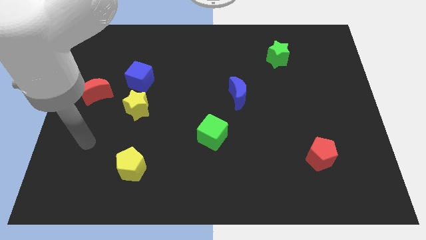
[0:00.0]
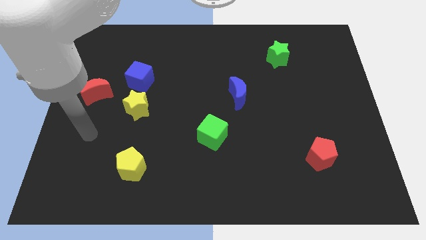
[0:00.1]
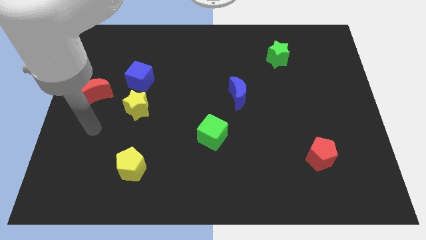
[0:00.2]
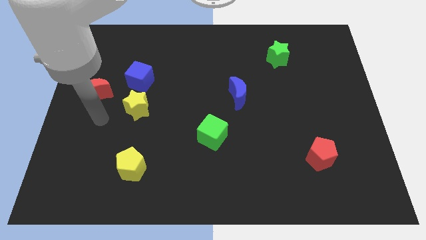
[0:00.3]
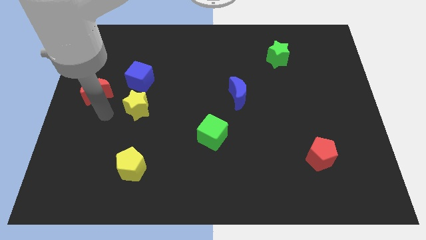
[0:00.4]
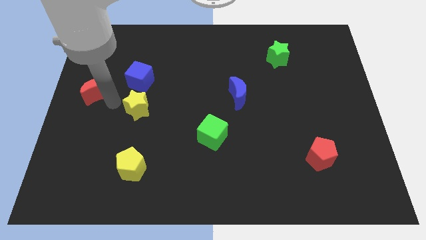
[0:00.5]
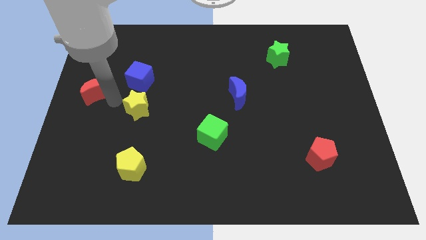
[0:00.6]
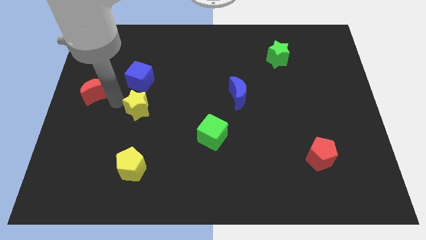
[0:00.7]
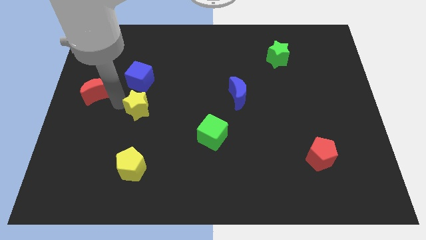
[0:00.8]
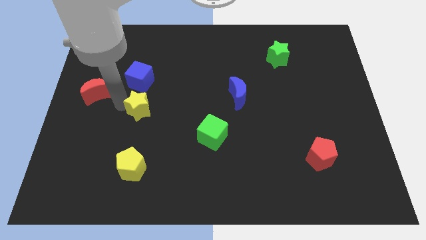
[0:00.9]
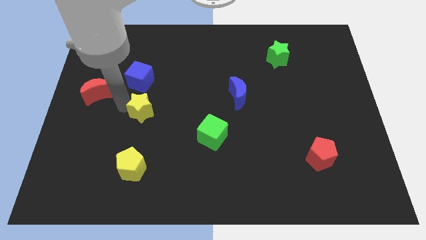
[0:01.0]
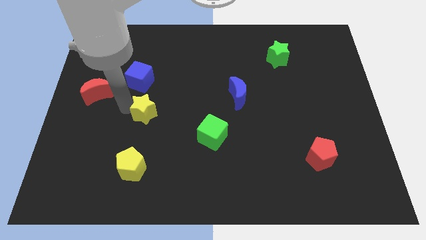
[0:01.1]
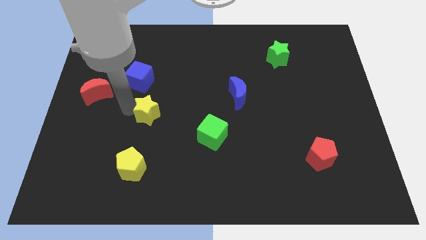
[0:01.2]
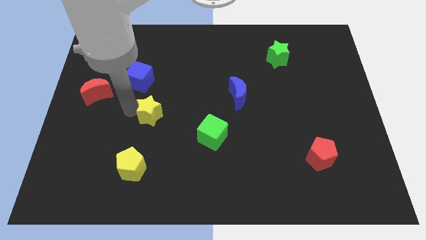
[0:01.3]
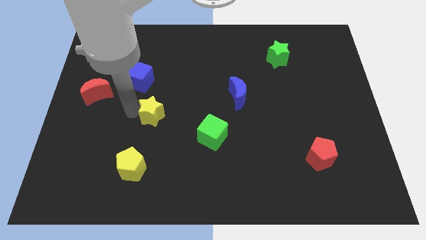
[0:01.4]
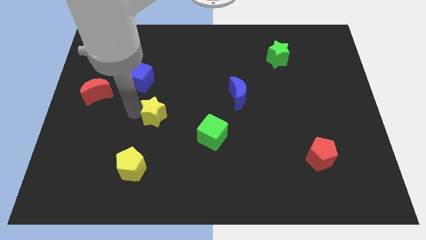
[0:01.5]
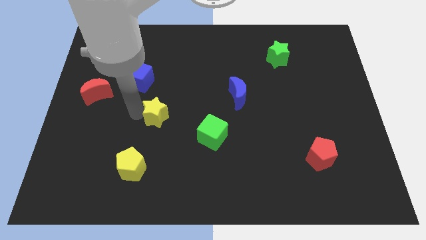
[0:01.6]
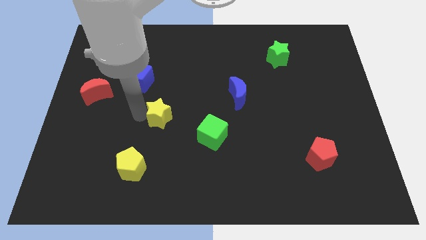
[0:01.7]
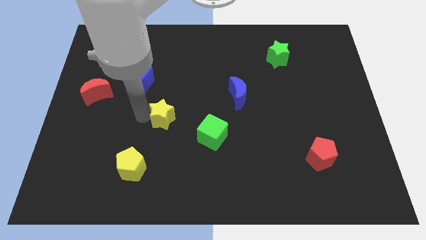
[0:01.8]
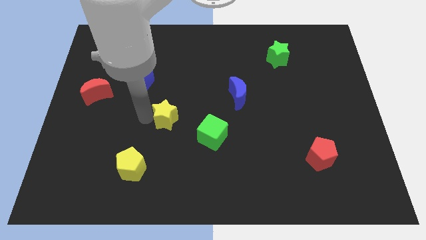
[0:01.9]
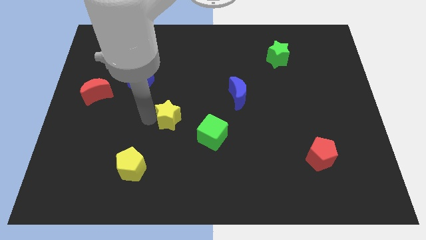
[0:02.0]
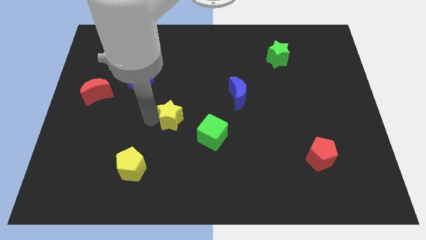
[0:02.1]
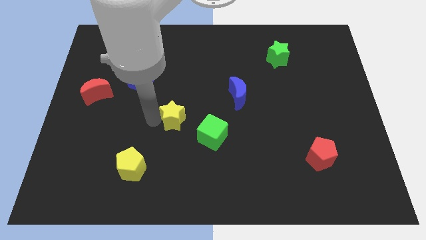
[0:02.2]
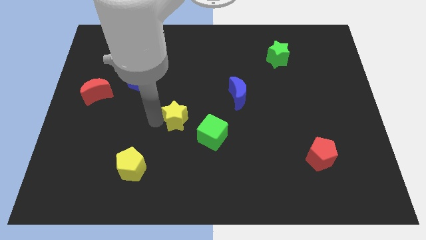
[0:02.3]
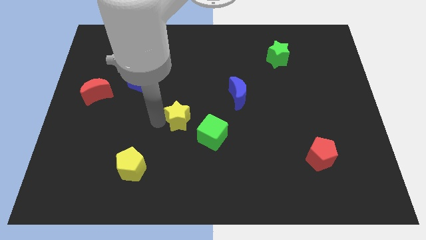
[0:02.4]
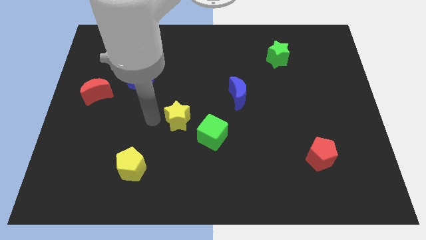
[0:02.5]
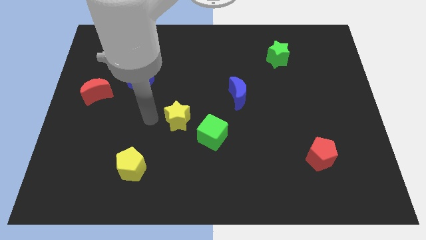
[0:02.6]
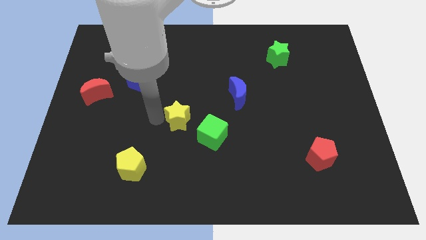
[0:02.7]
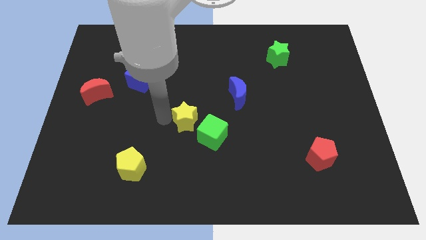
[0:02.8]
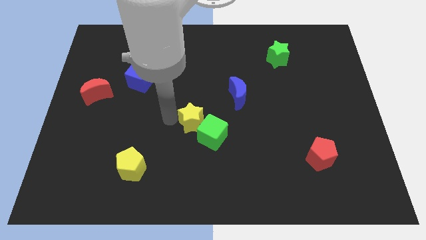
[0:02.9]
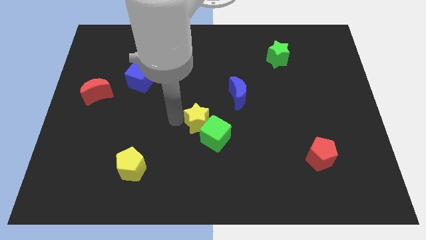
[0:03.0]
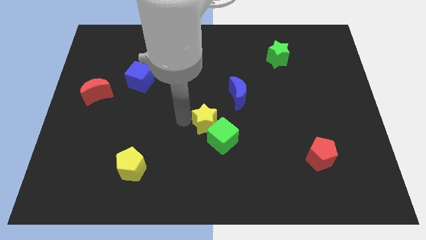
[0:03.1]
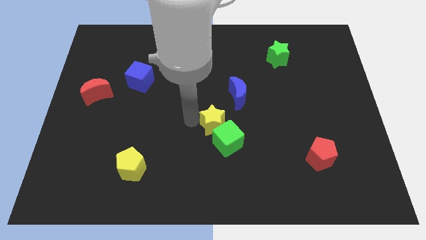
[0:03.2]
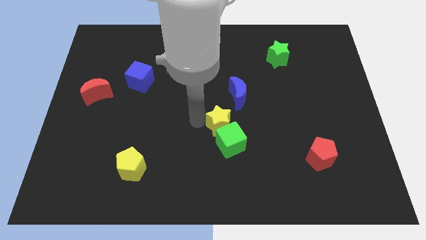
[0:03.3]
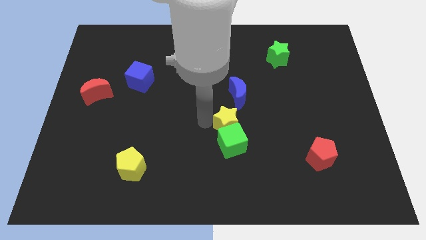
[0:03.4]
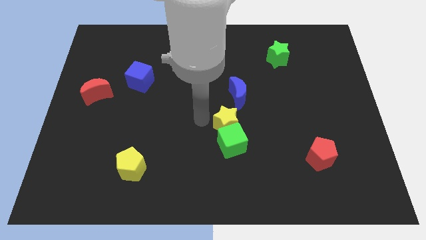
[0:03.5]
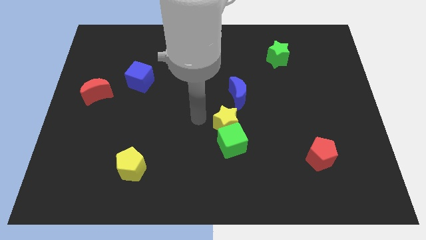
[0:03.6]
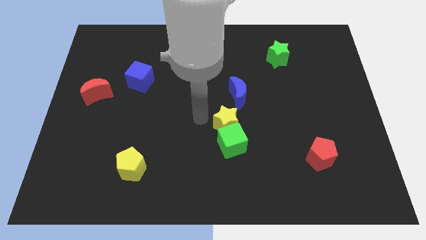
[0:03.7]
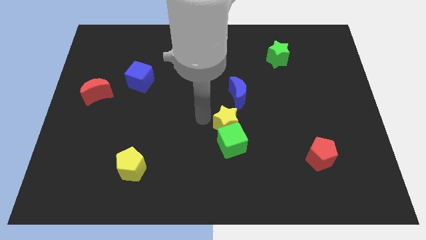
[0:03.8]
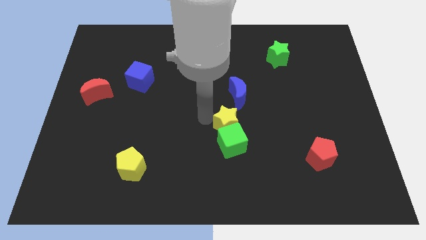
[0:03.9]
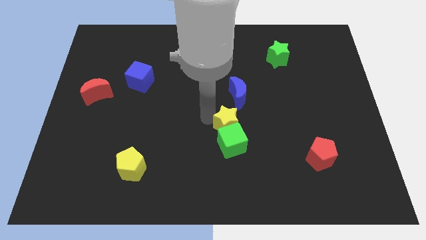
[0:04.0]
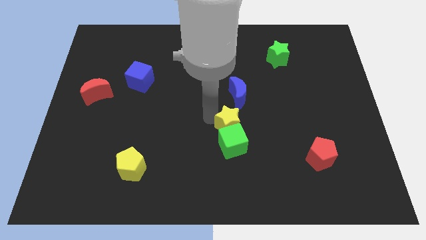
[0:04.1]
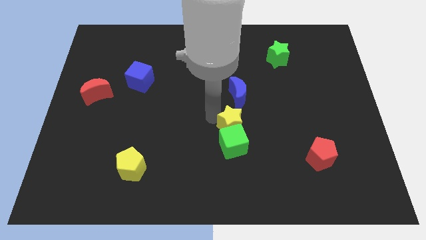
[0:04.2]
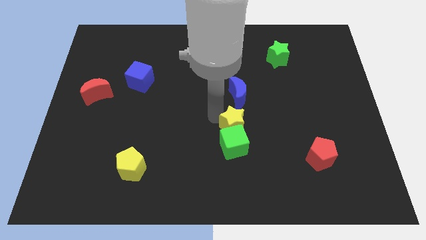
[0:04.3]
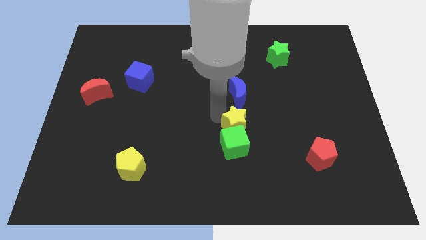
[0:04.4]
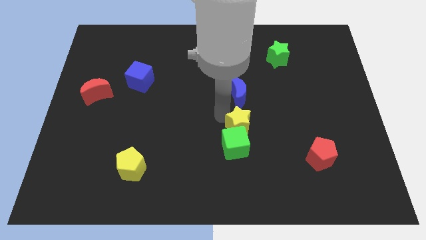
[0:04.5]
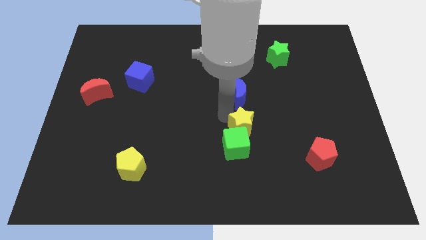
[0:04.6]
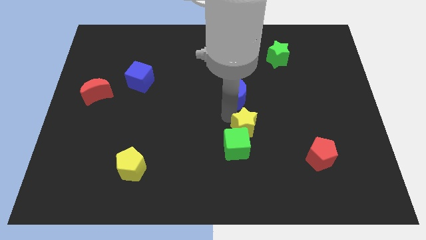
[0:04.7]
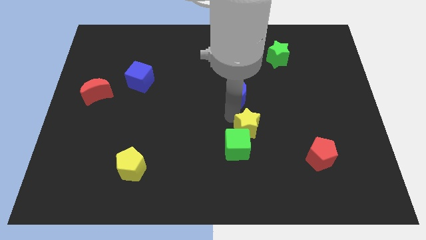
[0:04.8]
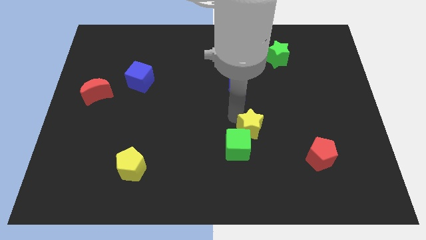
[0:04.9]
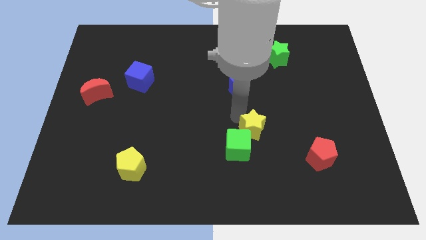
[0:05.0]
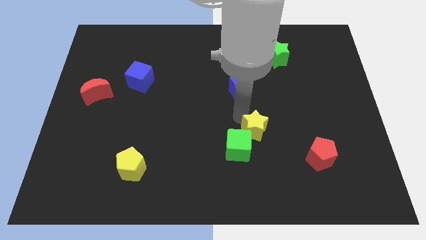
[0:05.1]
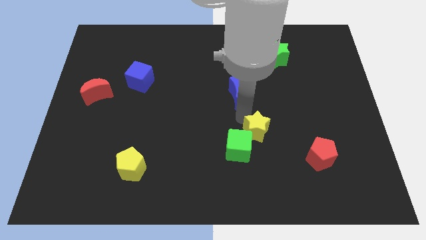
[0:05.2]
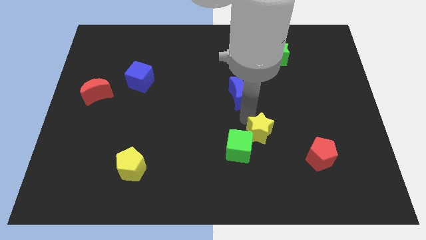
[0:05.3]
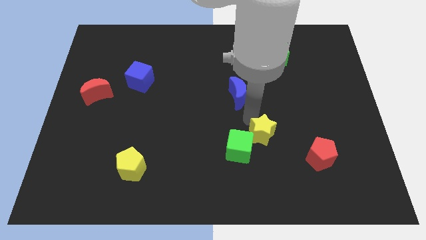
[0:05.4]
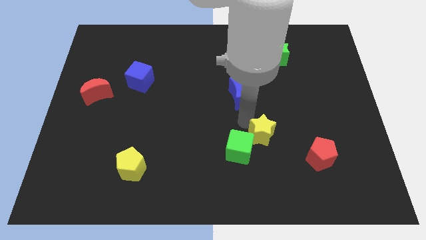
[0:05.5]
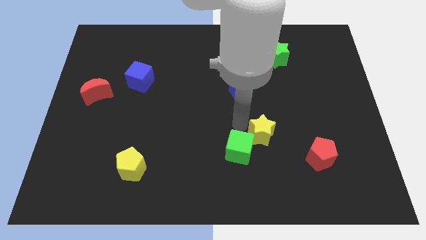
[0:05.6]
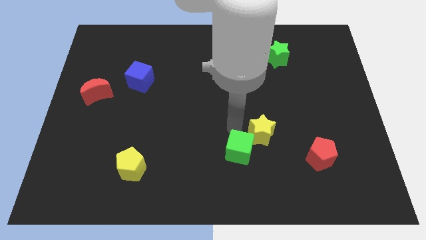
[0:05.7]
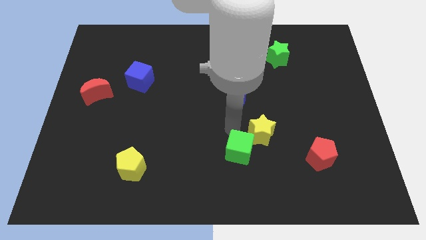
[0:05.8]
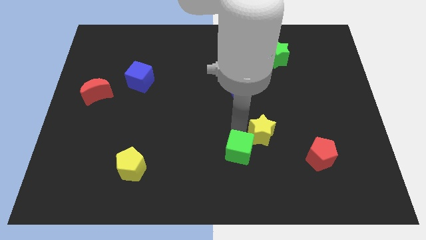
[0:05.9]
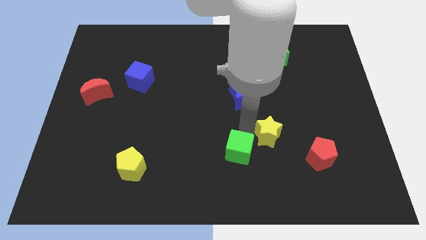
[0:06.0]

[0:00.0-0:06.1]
push the yellow star to the top left side of the red pentagon
